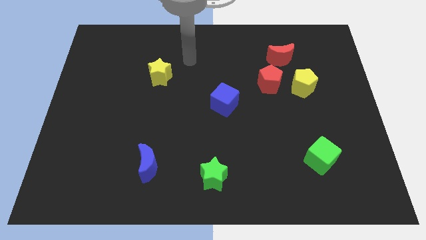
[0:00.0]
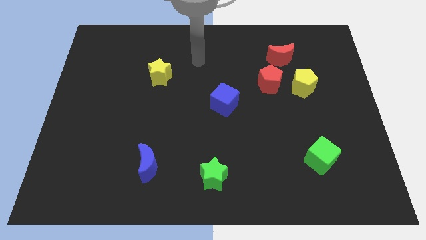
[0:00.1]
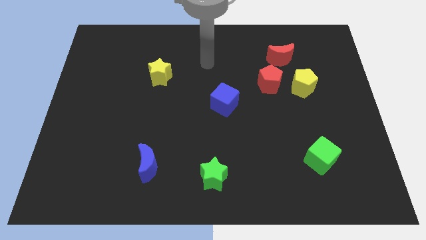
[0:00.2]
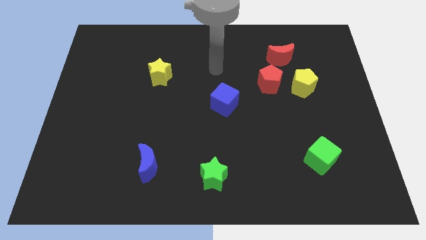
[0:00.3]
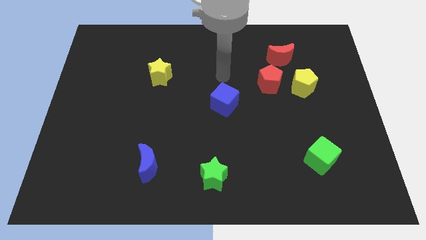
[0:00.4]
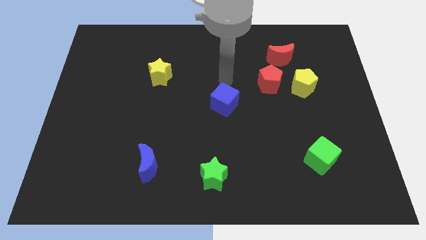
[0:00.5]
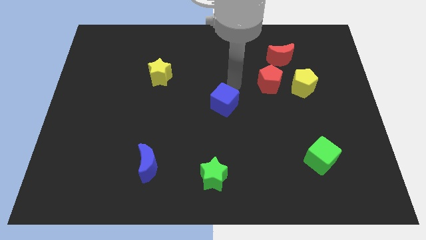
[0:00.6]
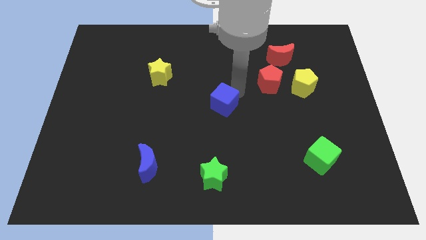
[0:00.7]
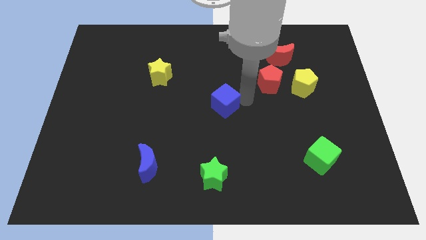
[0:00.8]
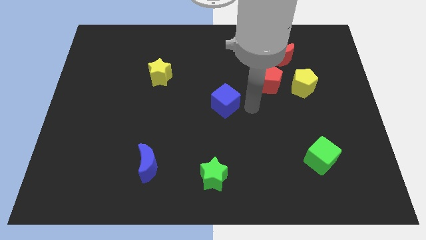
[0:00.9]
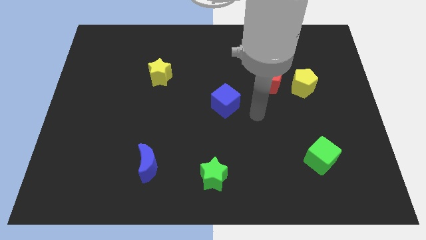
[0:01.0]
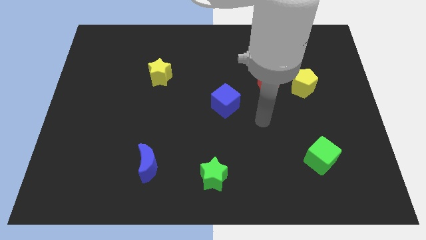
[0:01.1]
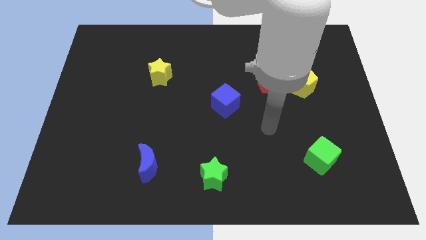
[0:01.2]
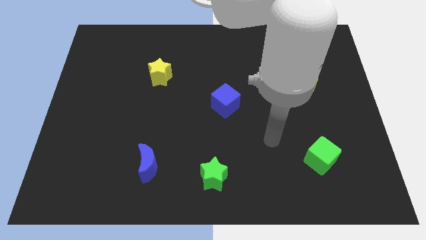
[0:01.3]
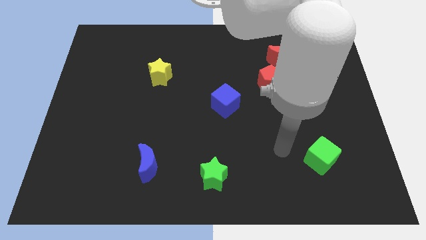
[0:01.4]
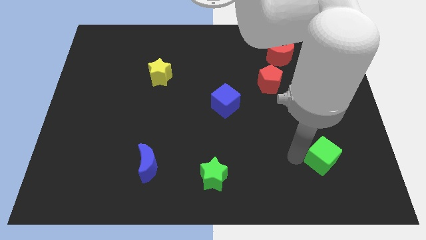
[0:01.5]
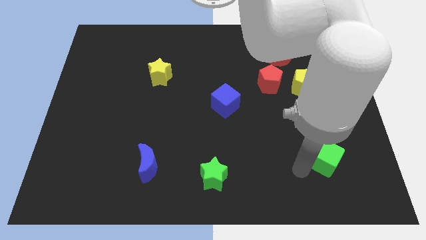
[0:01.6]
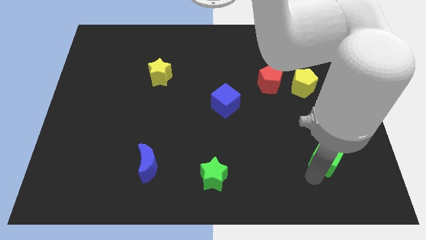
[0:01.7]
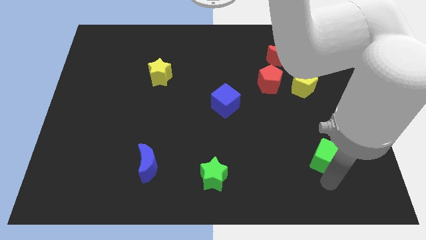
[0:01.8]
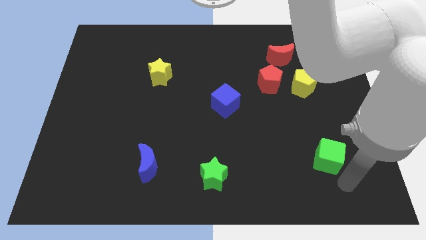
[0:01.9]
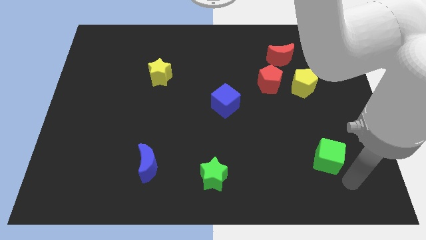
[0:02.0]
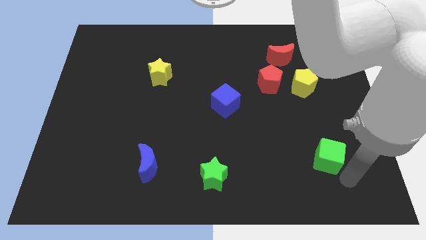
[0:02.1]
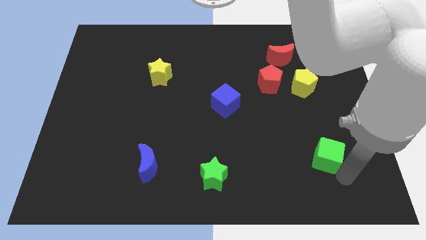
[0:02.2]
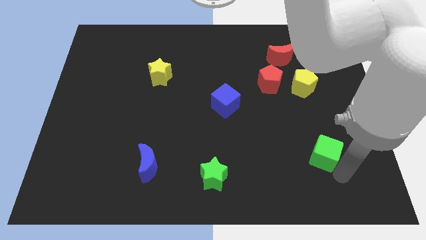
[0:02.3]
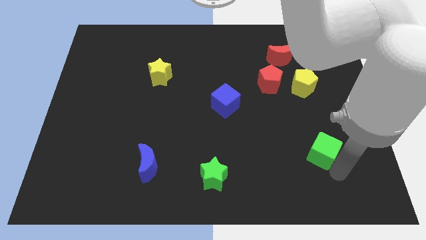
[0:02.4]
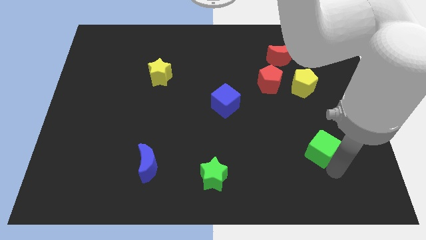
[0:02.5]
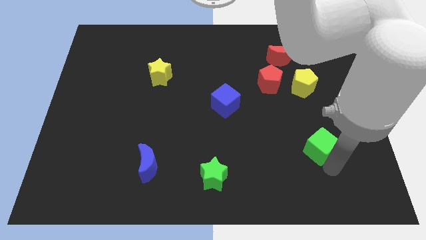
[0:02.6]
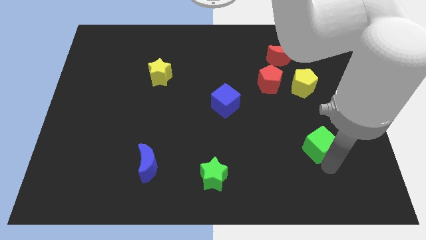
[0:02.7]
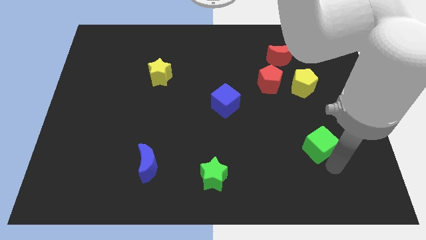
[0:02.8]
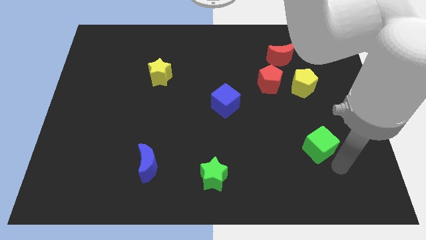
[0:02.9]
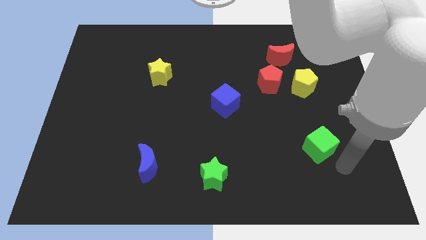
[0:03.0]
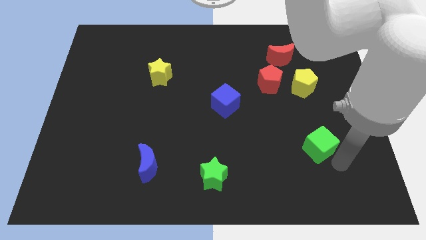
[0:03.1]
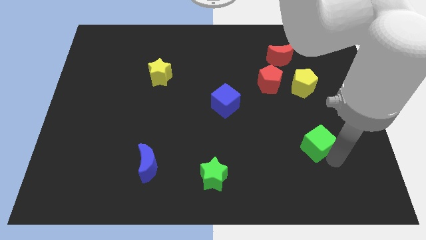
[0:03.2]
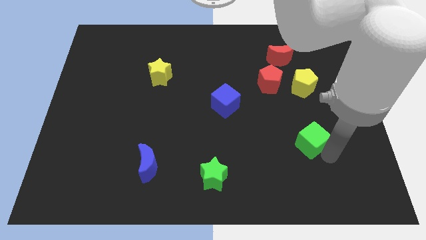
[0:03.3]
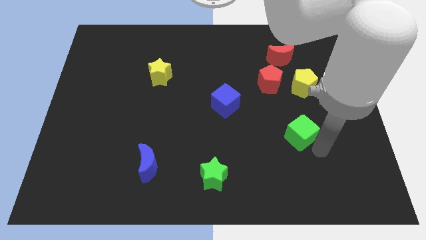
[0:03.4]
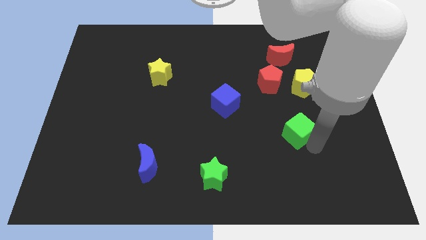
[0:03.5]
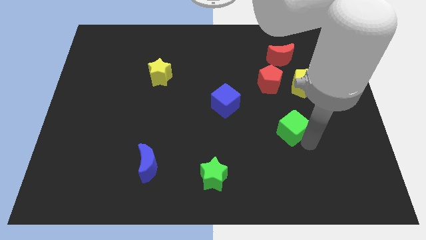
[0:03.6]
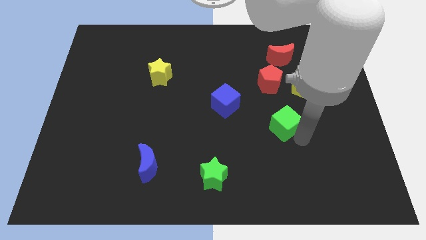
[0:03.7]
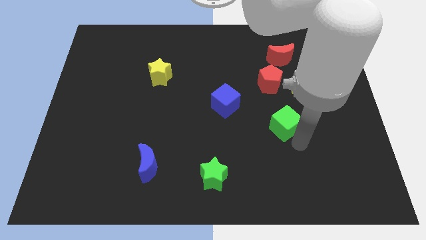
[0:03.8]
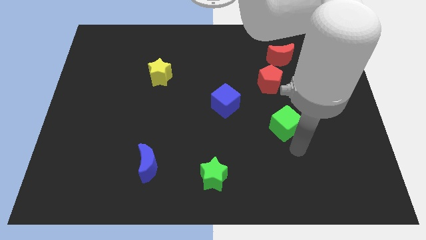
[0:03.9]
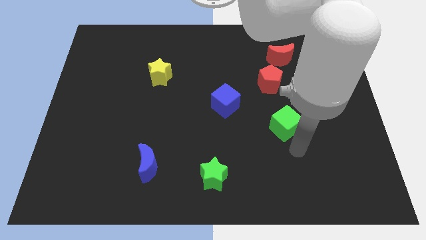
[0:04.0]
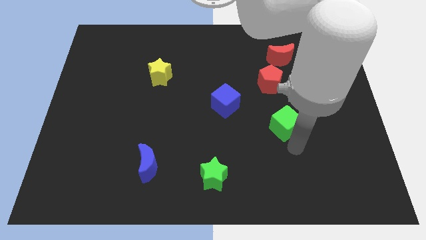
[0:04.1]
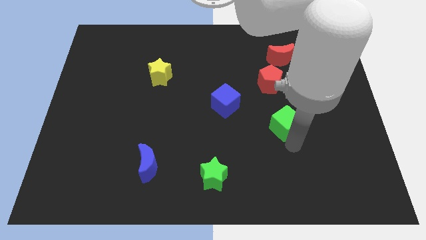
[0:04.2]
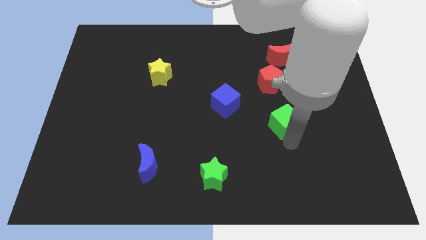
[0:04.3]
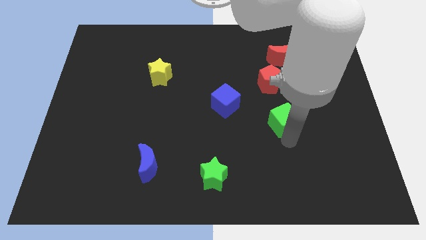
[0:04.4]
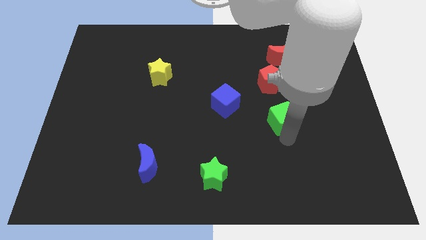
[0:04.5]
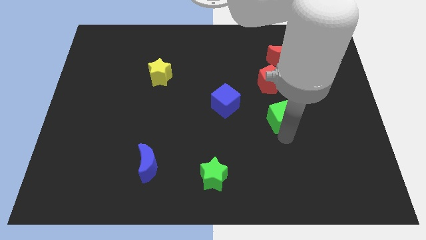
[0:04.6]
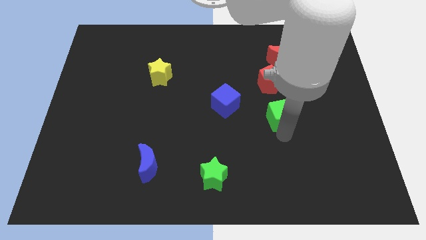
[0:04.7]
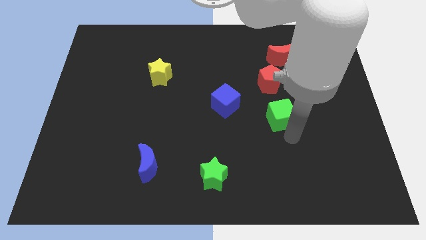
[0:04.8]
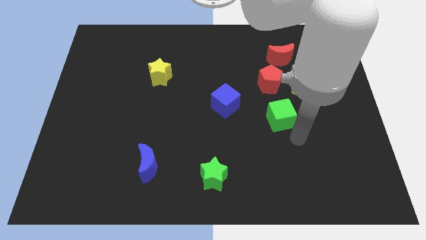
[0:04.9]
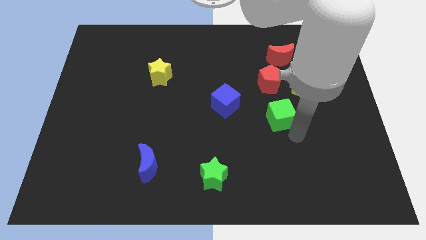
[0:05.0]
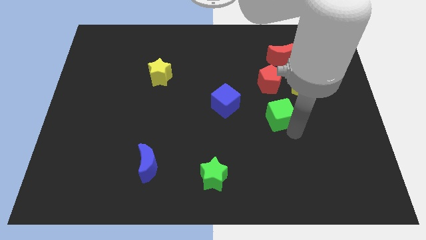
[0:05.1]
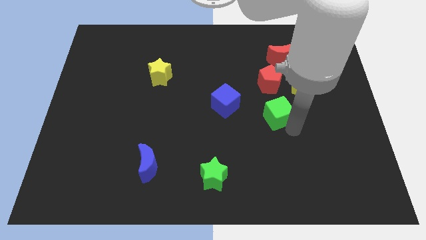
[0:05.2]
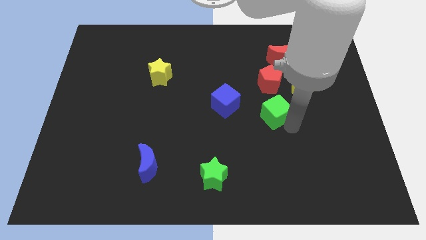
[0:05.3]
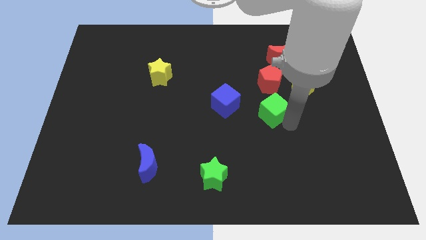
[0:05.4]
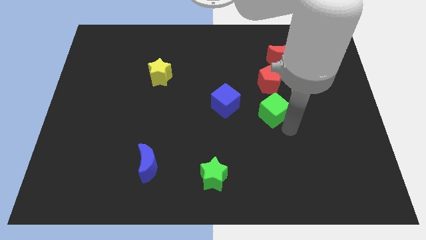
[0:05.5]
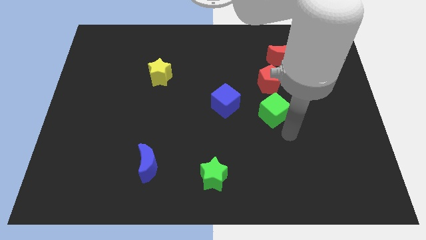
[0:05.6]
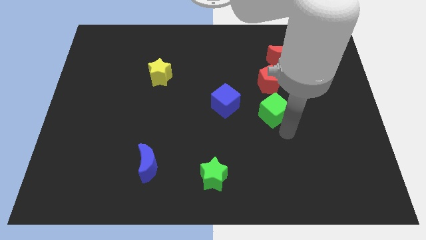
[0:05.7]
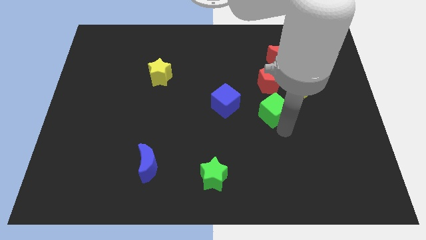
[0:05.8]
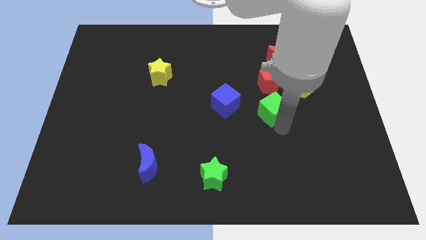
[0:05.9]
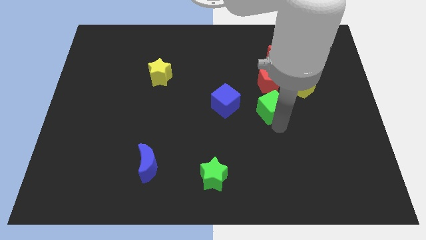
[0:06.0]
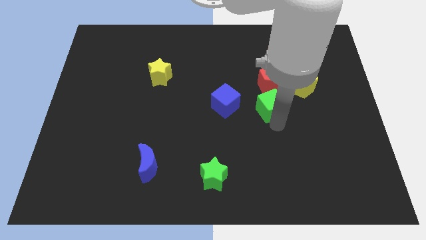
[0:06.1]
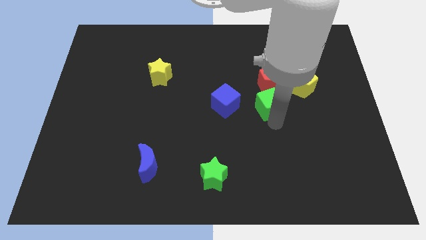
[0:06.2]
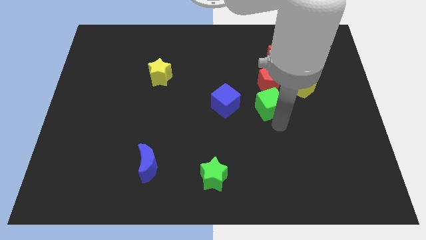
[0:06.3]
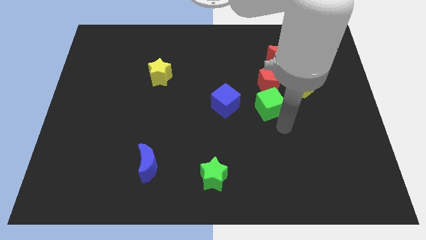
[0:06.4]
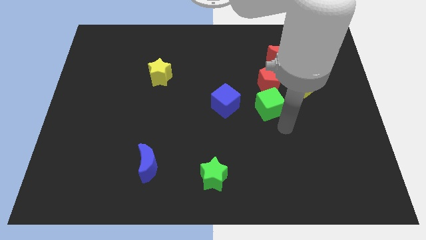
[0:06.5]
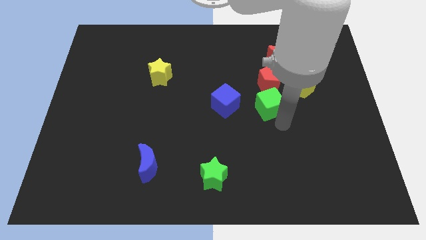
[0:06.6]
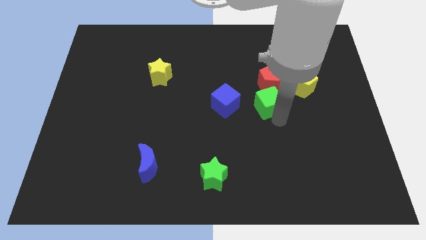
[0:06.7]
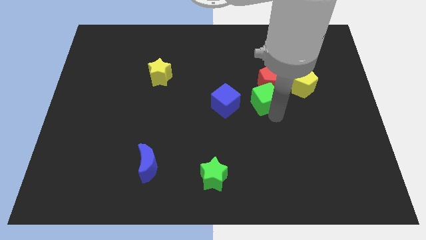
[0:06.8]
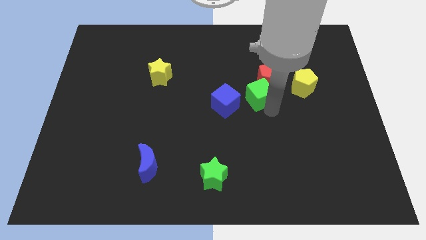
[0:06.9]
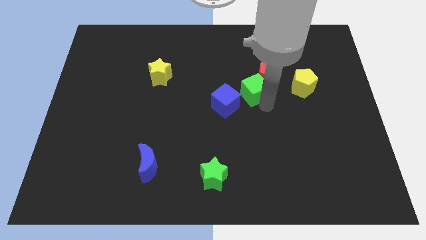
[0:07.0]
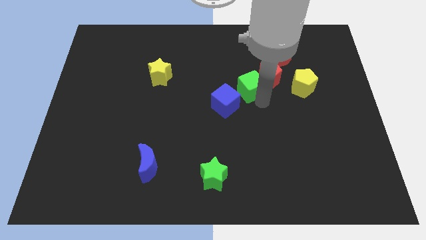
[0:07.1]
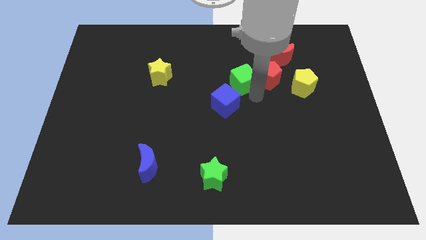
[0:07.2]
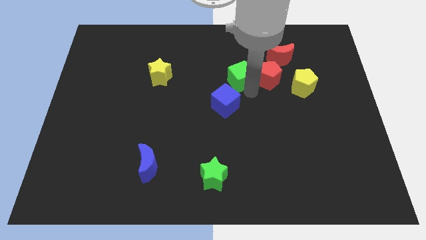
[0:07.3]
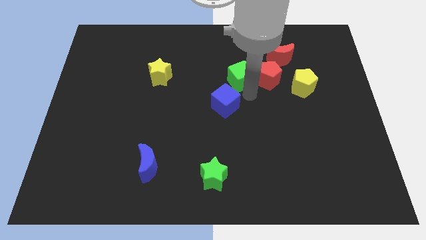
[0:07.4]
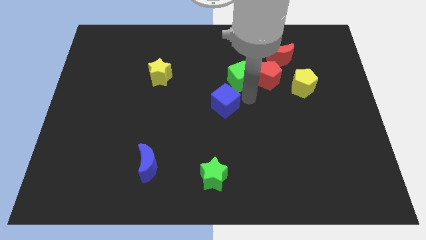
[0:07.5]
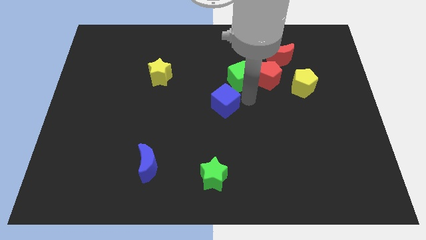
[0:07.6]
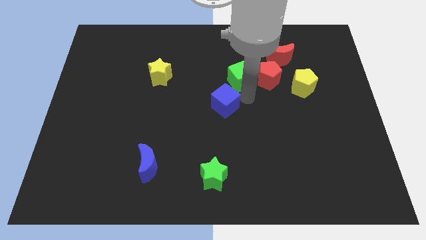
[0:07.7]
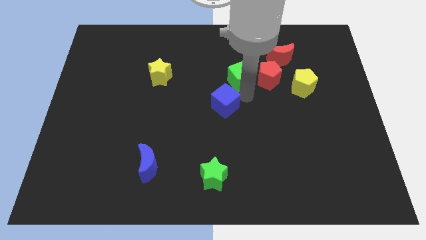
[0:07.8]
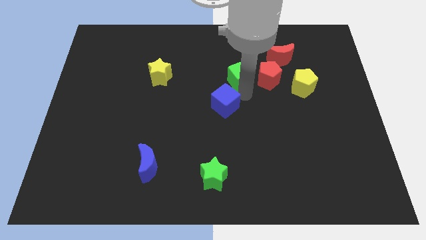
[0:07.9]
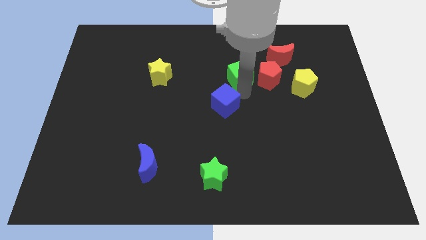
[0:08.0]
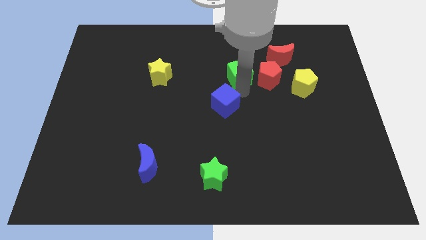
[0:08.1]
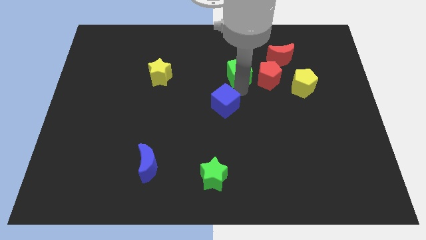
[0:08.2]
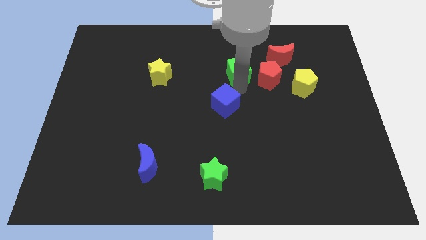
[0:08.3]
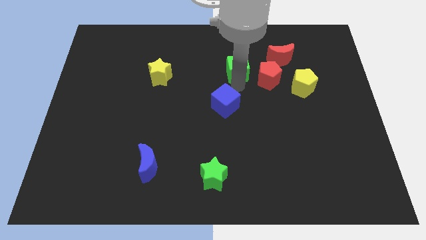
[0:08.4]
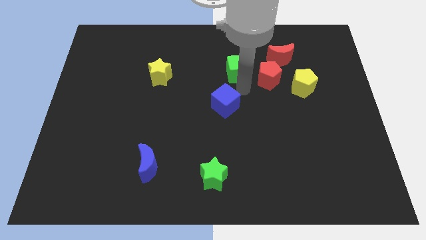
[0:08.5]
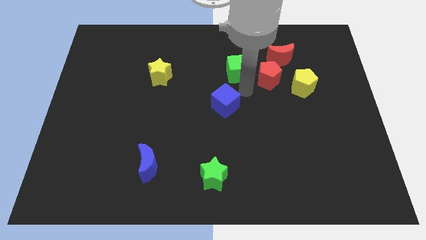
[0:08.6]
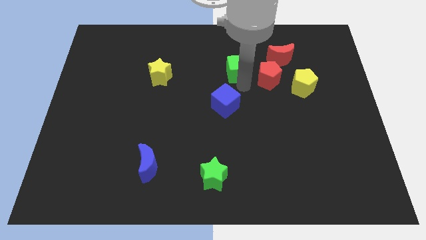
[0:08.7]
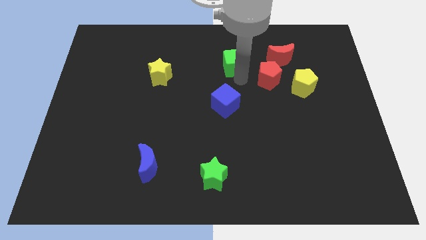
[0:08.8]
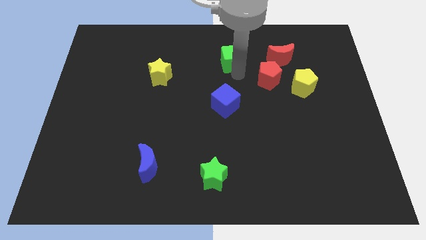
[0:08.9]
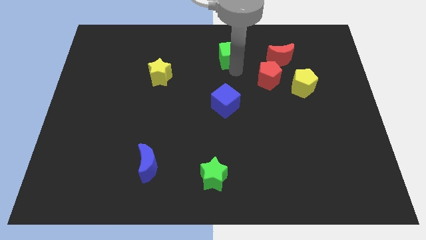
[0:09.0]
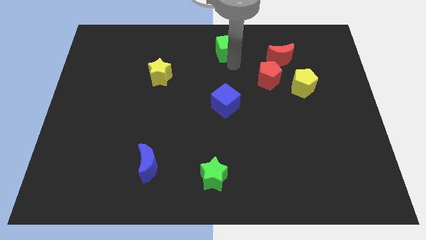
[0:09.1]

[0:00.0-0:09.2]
push the green cube to the top side
